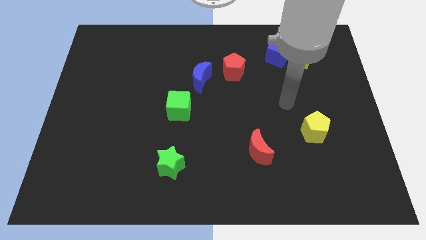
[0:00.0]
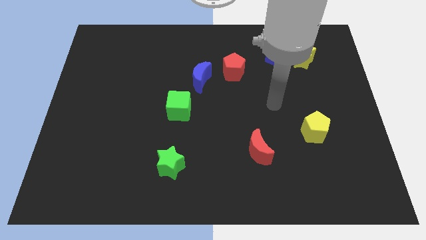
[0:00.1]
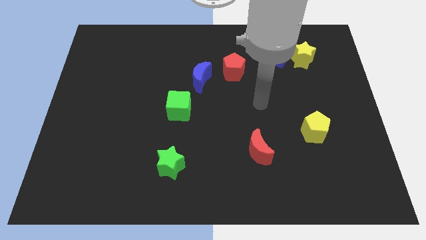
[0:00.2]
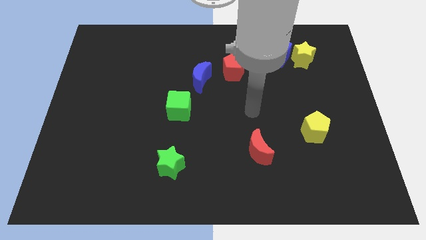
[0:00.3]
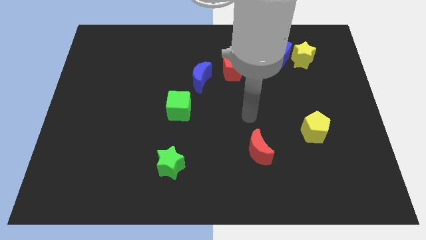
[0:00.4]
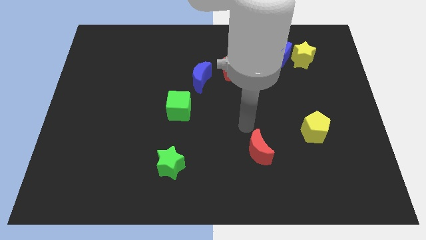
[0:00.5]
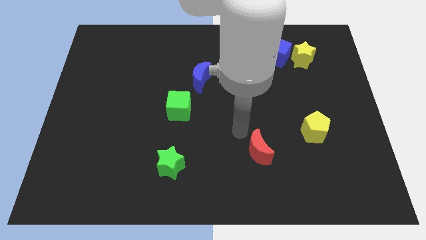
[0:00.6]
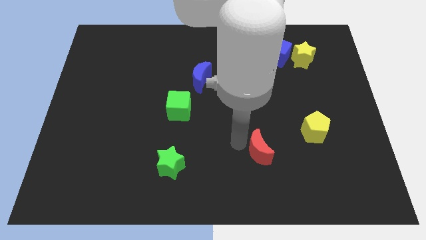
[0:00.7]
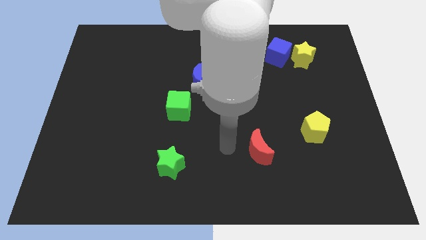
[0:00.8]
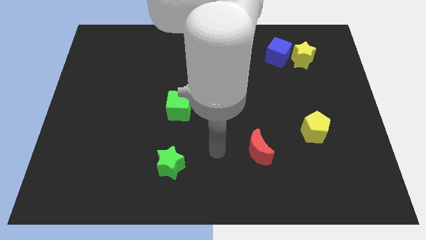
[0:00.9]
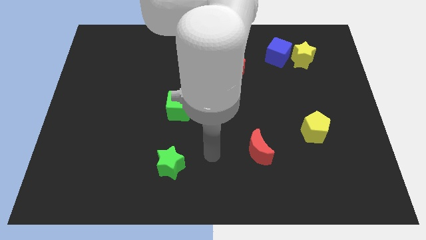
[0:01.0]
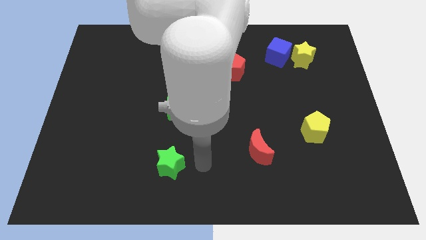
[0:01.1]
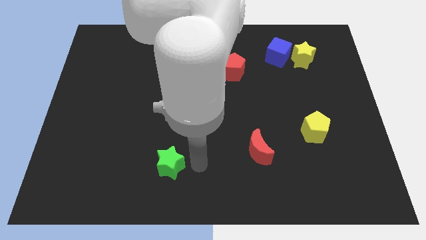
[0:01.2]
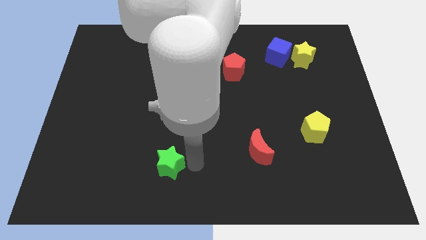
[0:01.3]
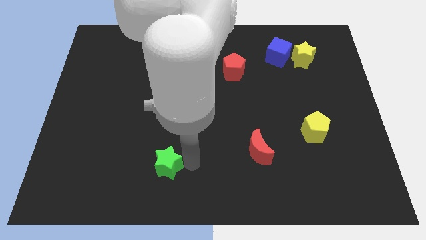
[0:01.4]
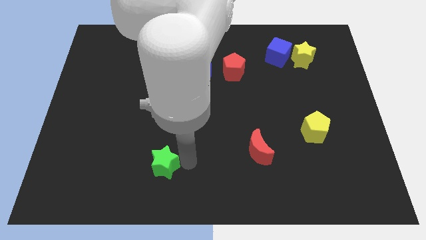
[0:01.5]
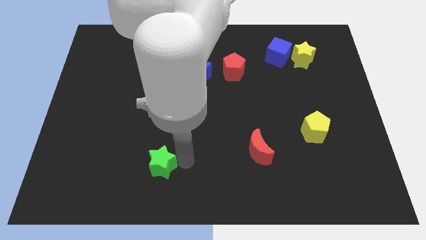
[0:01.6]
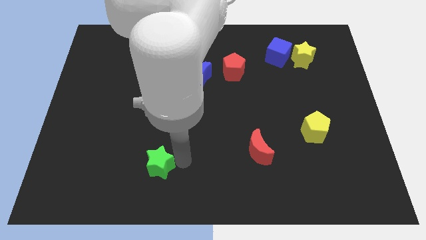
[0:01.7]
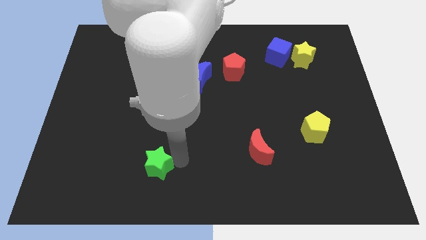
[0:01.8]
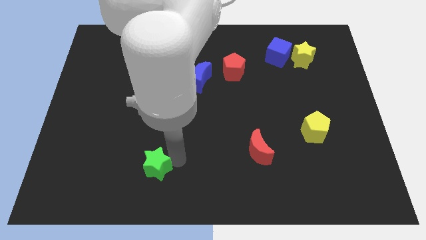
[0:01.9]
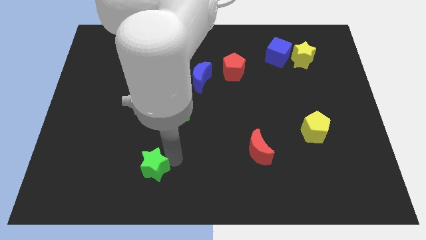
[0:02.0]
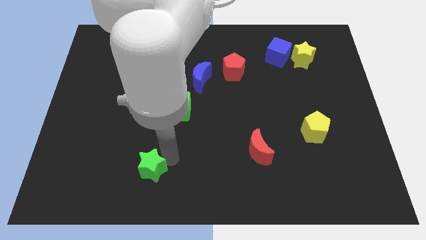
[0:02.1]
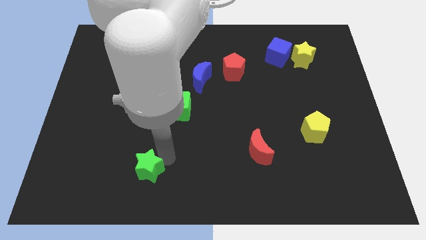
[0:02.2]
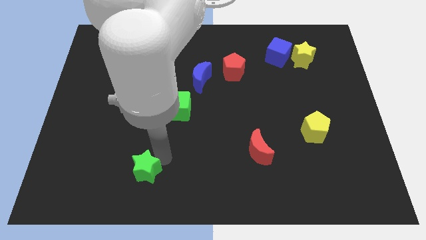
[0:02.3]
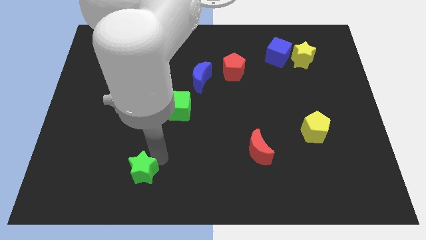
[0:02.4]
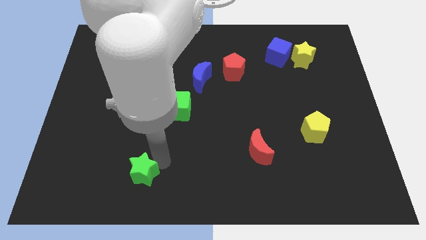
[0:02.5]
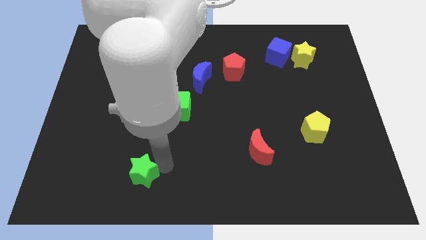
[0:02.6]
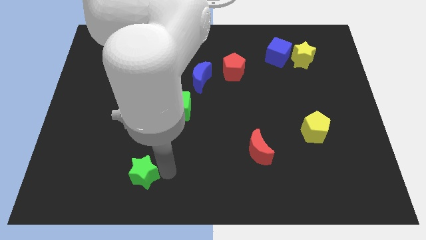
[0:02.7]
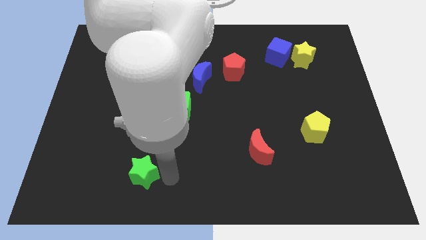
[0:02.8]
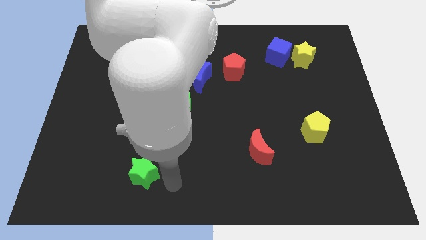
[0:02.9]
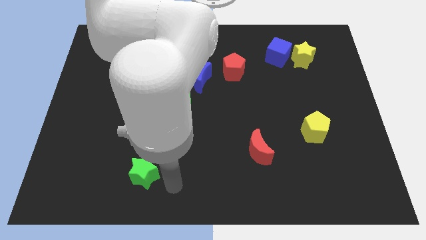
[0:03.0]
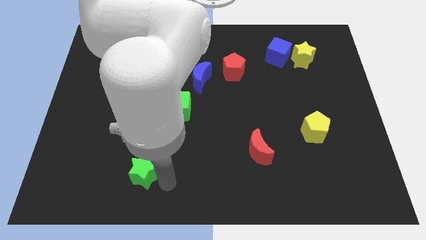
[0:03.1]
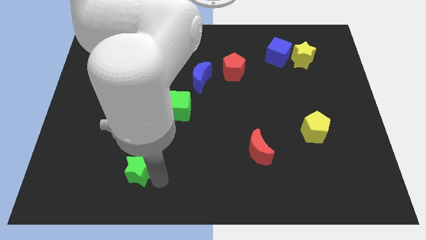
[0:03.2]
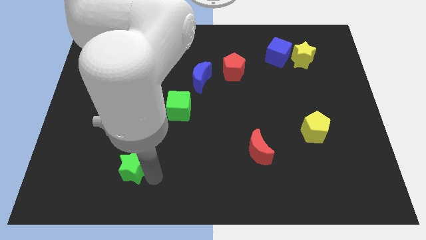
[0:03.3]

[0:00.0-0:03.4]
move the green star a little left

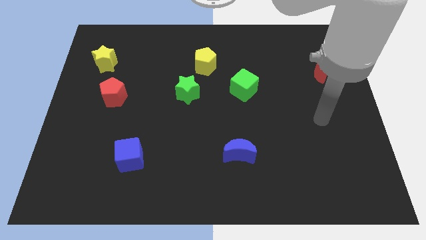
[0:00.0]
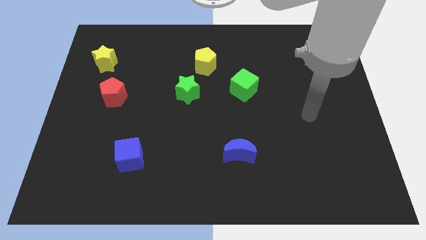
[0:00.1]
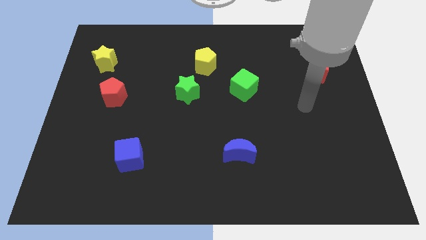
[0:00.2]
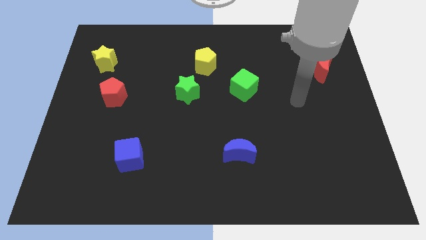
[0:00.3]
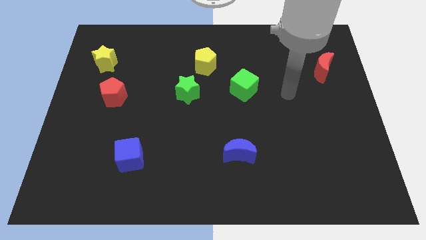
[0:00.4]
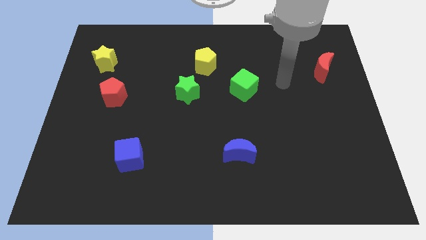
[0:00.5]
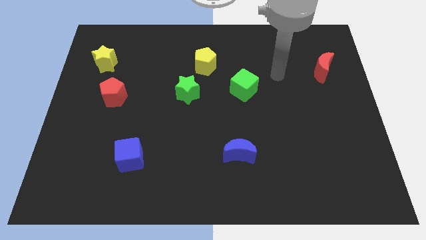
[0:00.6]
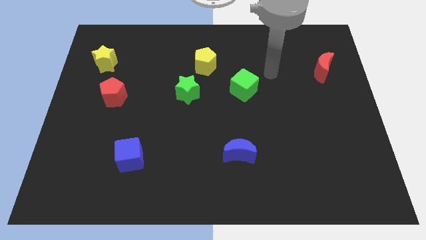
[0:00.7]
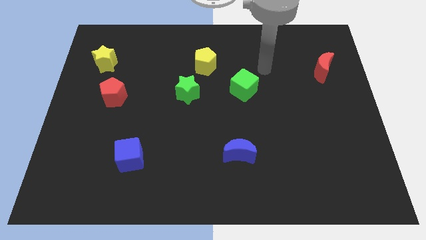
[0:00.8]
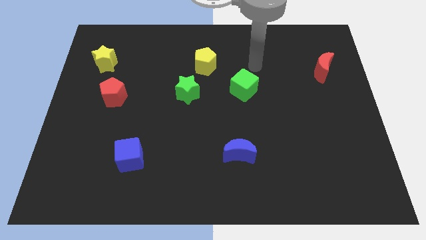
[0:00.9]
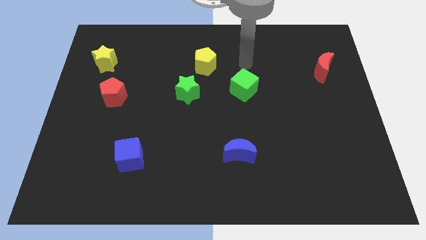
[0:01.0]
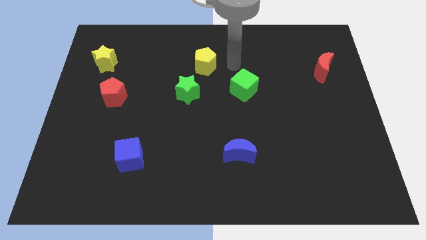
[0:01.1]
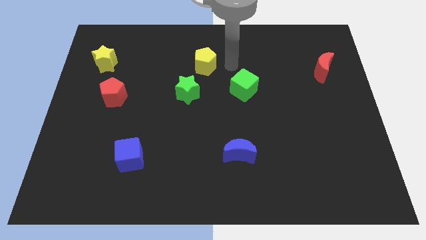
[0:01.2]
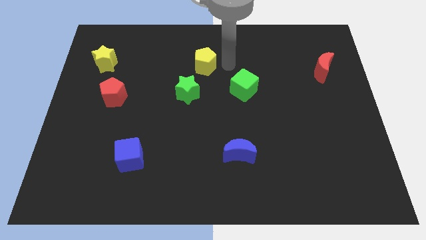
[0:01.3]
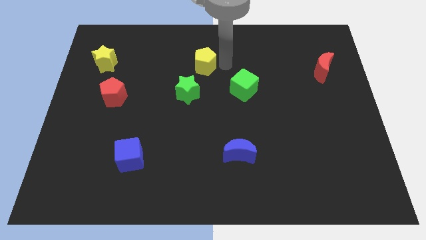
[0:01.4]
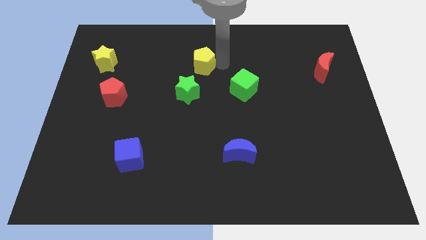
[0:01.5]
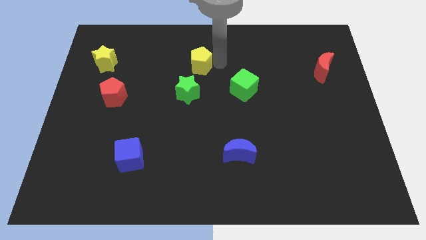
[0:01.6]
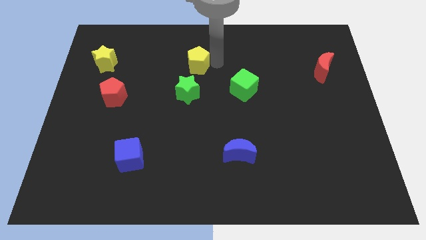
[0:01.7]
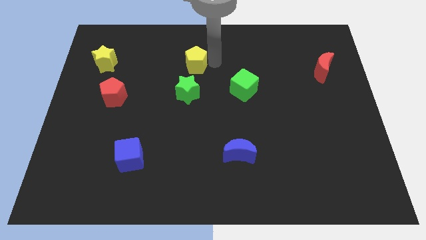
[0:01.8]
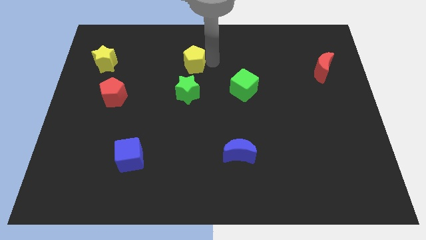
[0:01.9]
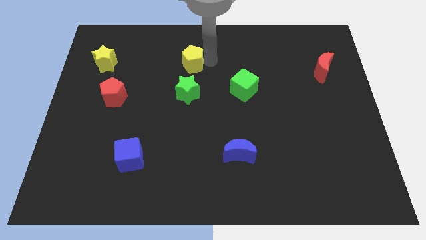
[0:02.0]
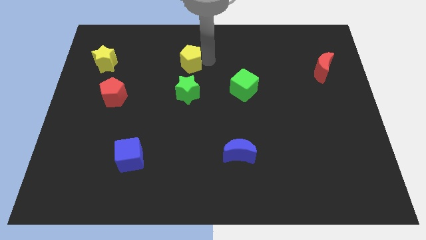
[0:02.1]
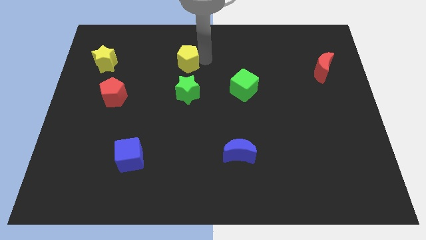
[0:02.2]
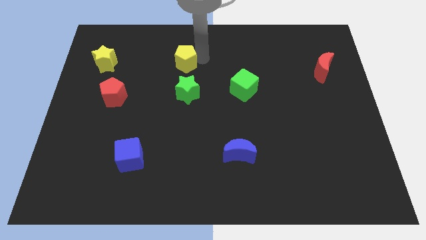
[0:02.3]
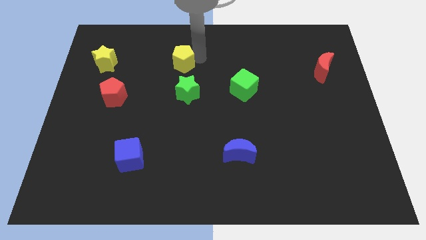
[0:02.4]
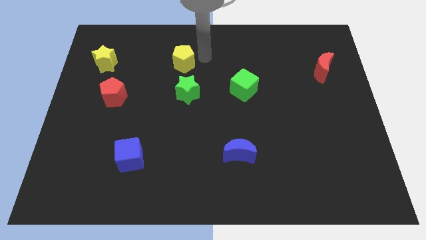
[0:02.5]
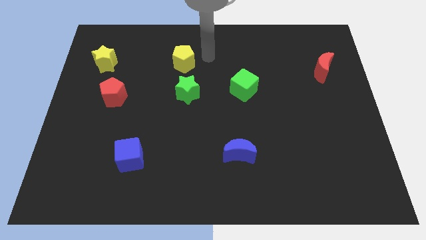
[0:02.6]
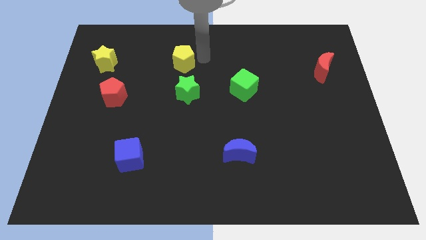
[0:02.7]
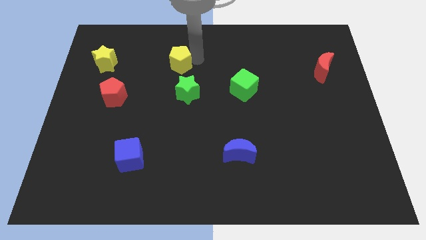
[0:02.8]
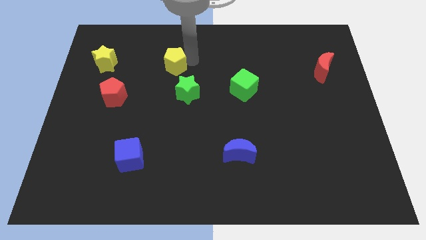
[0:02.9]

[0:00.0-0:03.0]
push the yellow pentagon left slightly

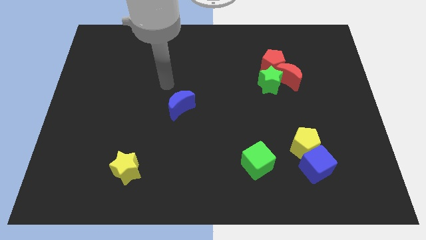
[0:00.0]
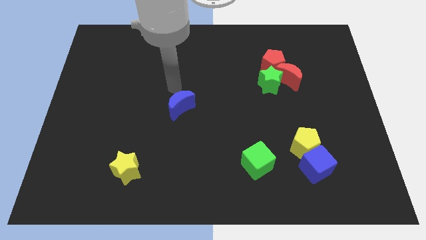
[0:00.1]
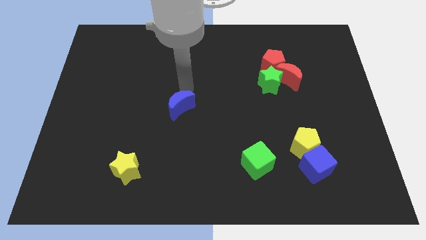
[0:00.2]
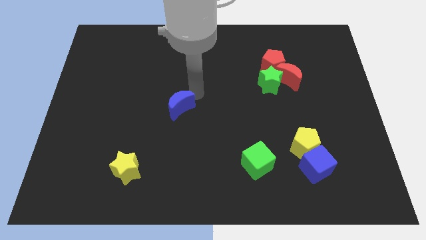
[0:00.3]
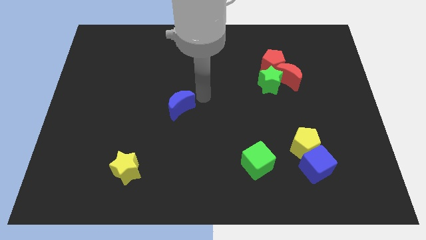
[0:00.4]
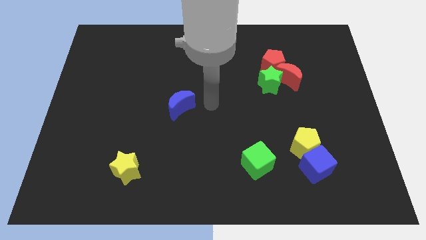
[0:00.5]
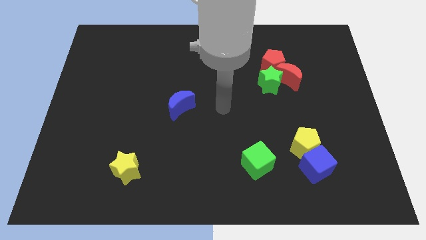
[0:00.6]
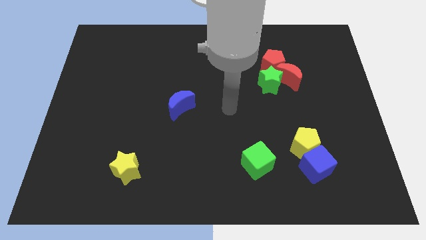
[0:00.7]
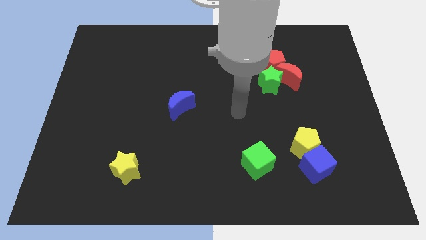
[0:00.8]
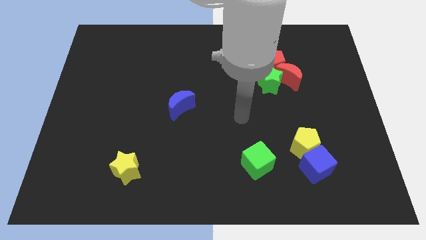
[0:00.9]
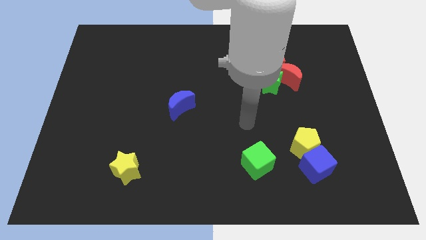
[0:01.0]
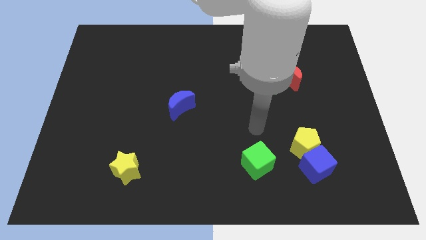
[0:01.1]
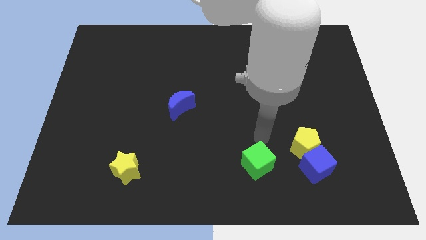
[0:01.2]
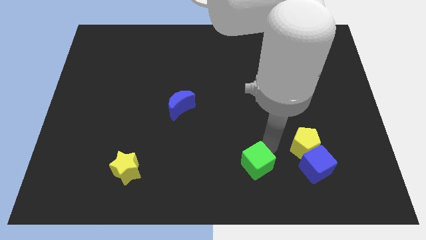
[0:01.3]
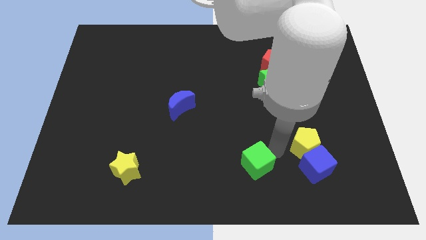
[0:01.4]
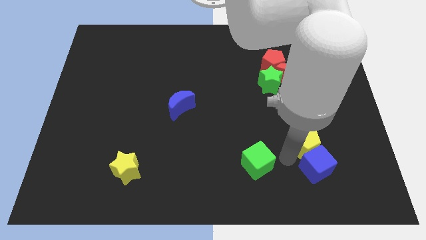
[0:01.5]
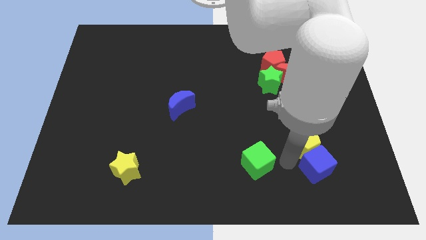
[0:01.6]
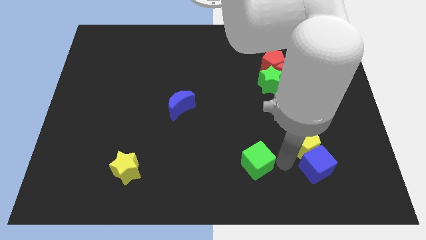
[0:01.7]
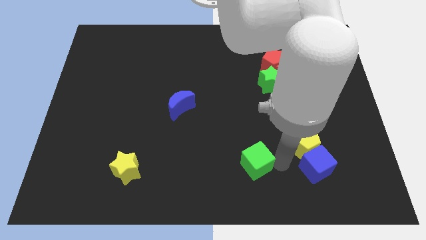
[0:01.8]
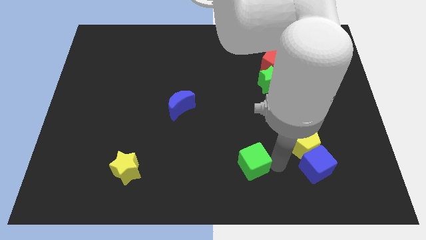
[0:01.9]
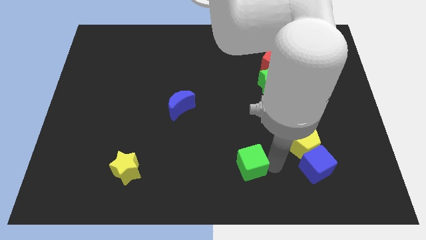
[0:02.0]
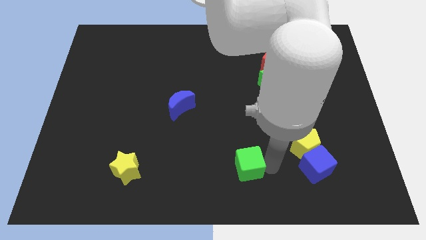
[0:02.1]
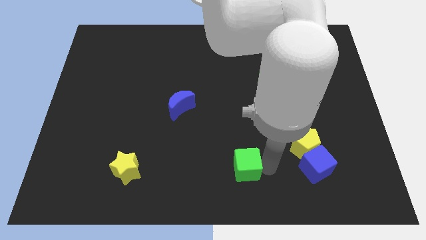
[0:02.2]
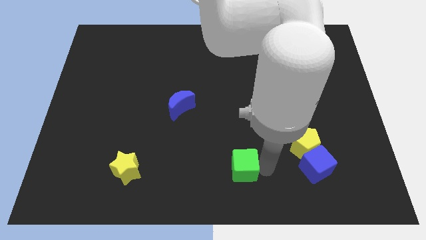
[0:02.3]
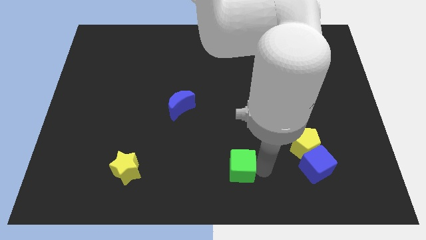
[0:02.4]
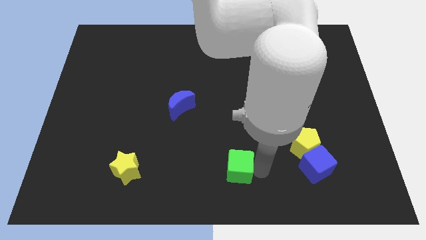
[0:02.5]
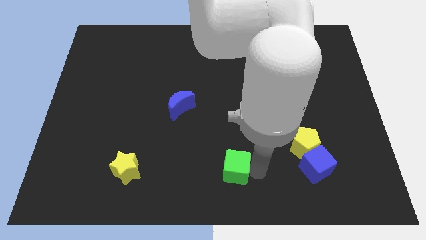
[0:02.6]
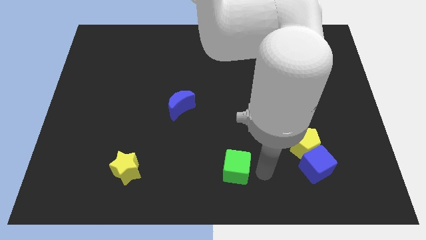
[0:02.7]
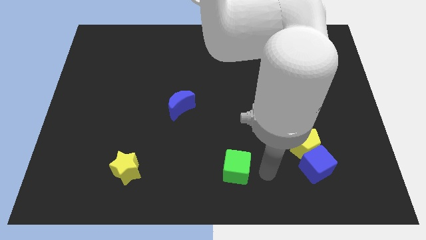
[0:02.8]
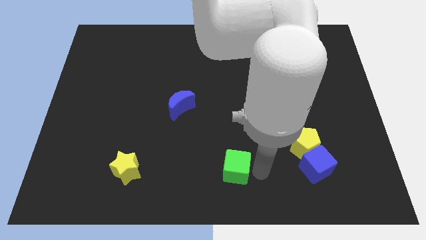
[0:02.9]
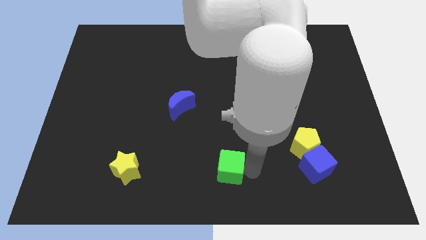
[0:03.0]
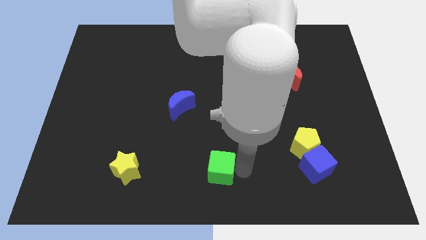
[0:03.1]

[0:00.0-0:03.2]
move the green cube to the left somewhat
